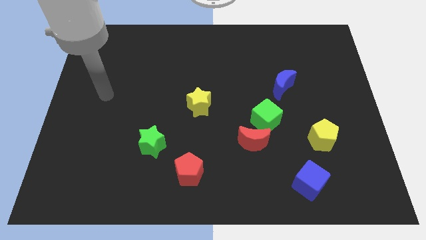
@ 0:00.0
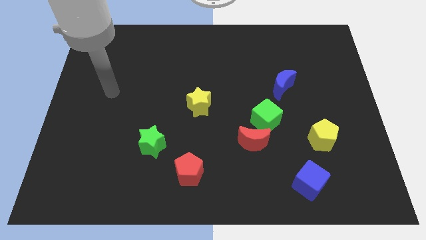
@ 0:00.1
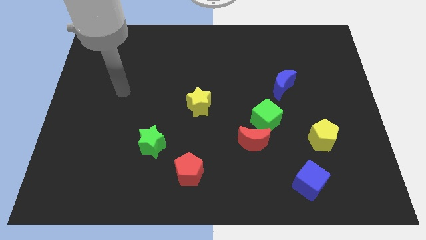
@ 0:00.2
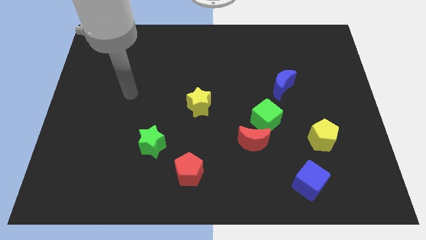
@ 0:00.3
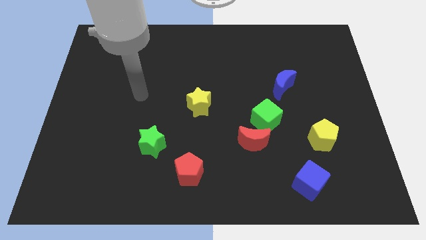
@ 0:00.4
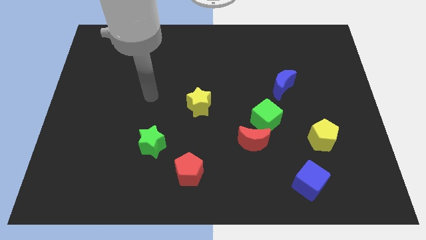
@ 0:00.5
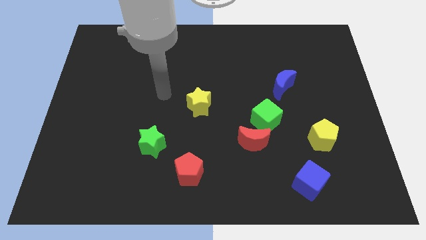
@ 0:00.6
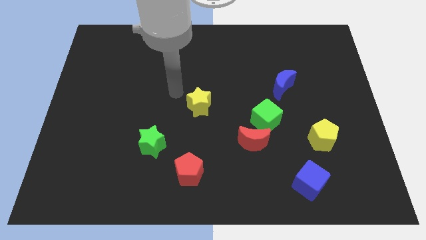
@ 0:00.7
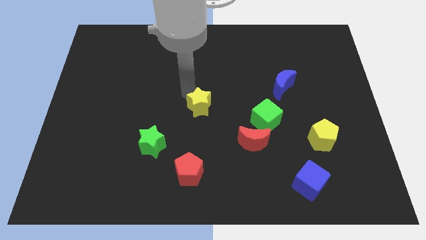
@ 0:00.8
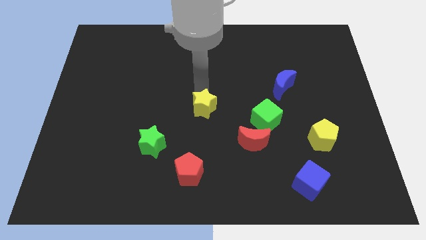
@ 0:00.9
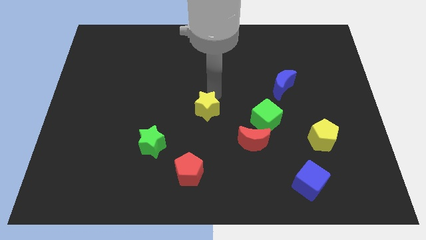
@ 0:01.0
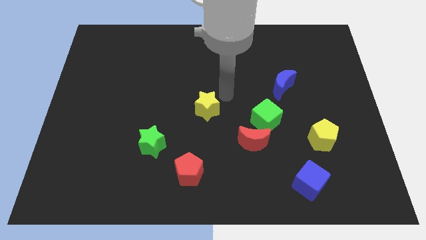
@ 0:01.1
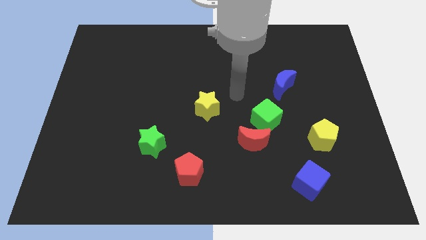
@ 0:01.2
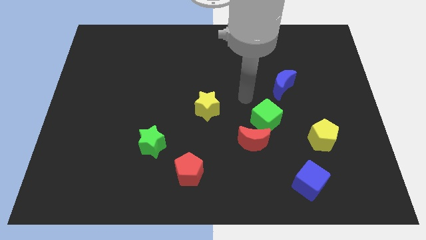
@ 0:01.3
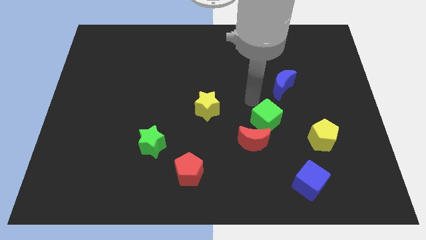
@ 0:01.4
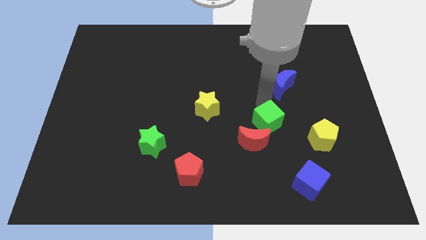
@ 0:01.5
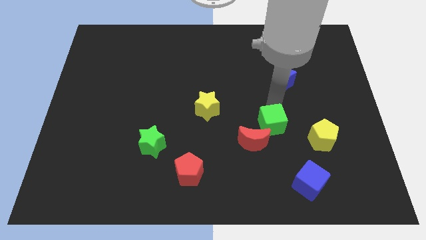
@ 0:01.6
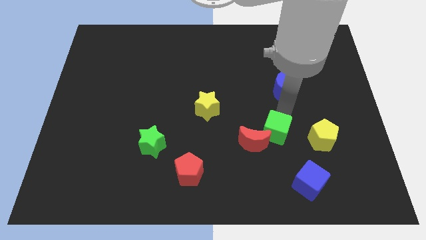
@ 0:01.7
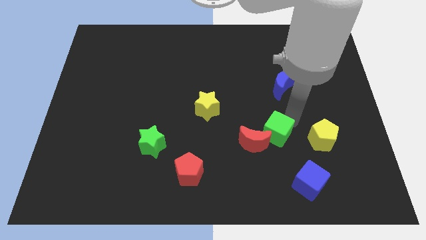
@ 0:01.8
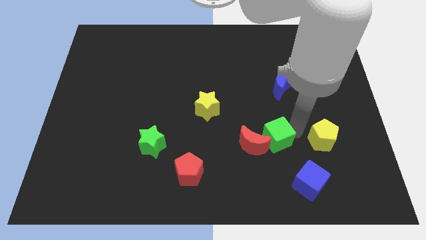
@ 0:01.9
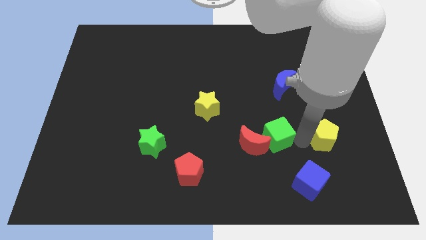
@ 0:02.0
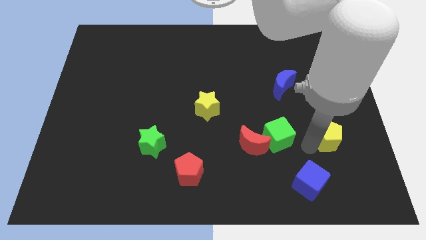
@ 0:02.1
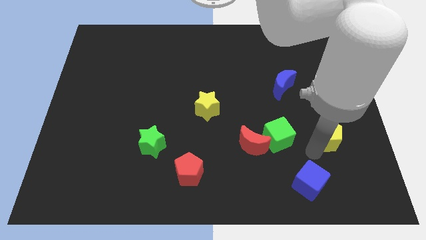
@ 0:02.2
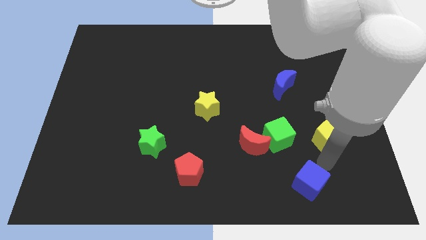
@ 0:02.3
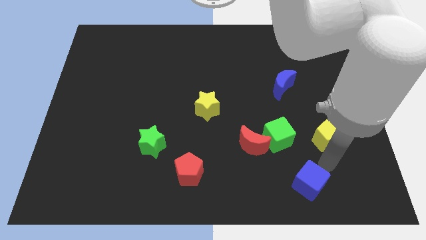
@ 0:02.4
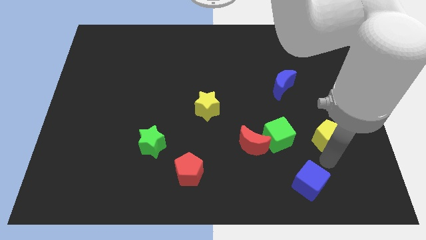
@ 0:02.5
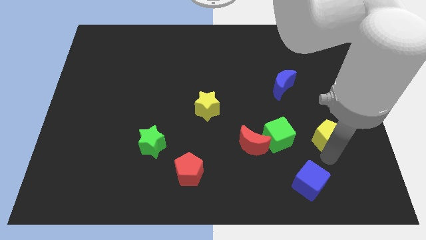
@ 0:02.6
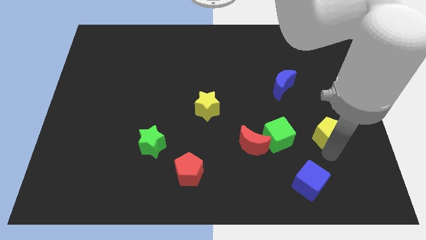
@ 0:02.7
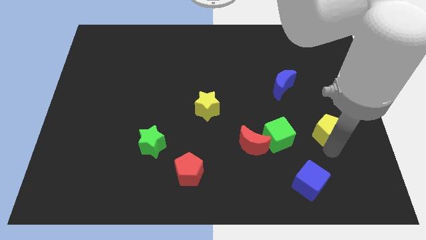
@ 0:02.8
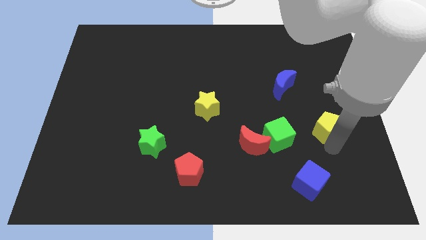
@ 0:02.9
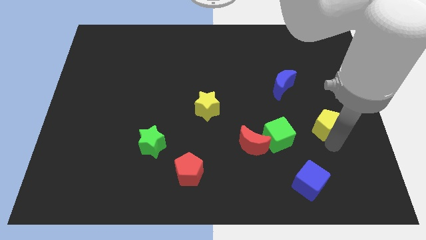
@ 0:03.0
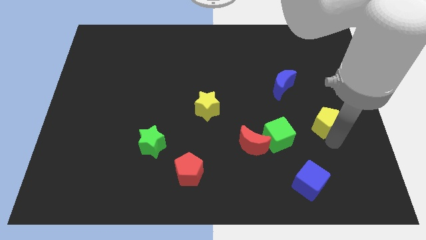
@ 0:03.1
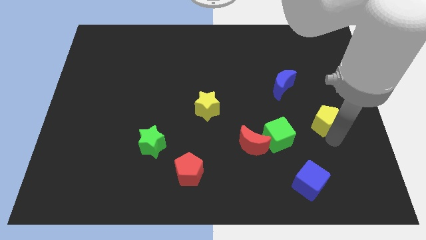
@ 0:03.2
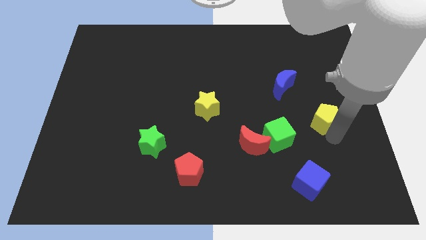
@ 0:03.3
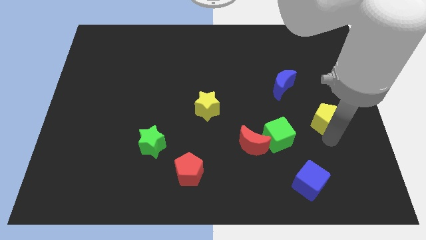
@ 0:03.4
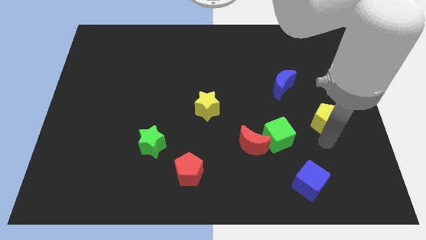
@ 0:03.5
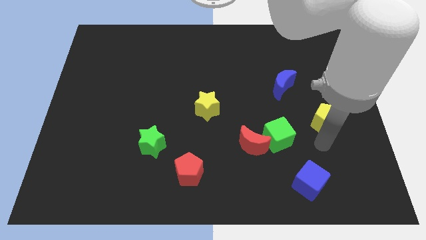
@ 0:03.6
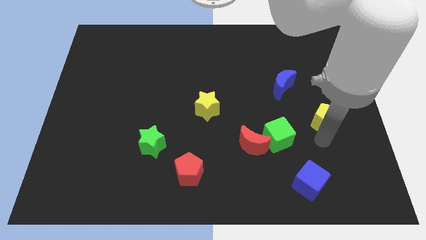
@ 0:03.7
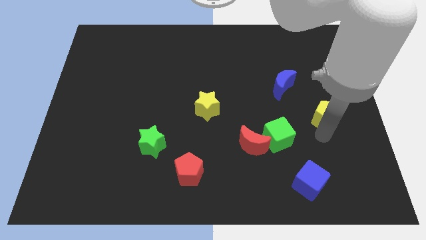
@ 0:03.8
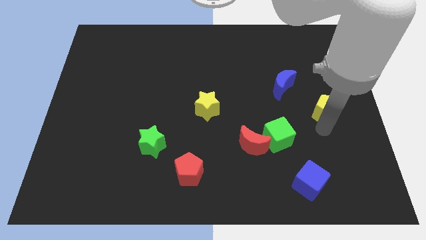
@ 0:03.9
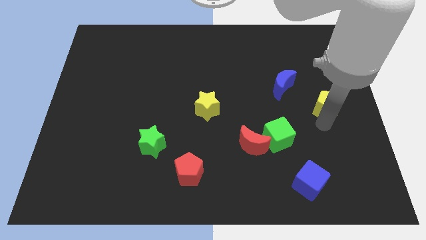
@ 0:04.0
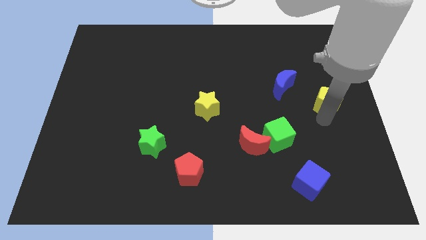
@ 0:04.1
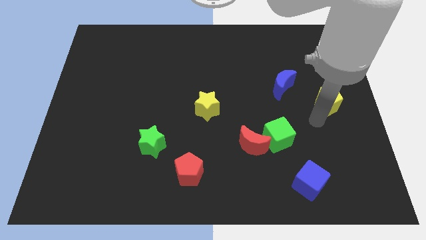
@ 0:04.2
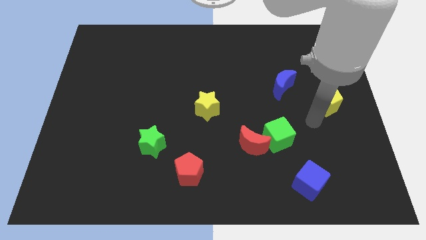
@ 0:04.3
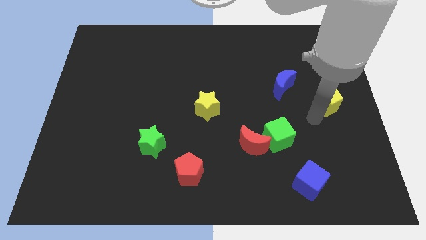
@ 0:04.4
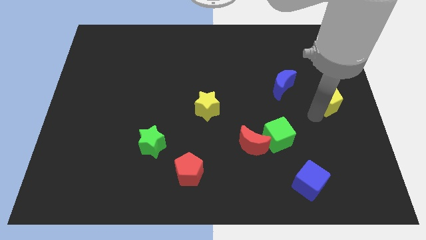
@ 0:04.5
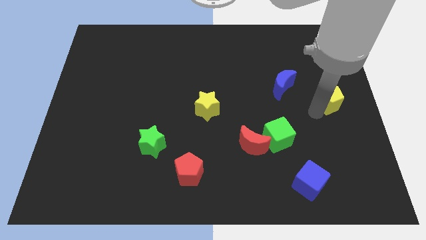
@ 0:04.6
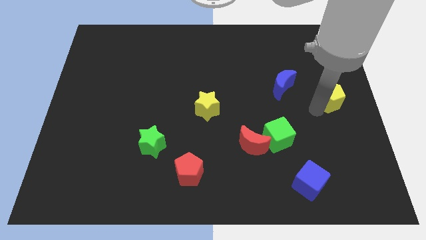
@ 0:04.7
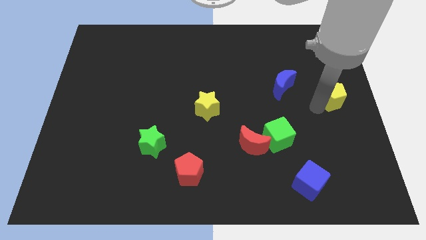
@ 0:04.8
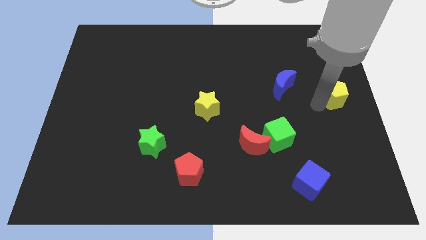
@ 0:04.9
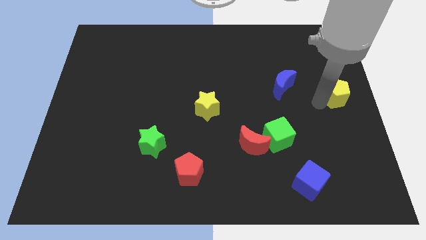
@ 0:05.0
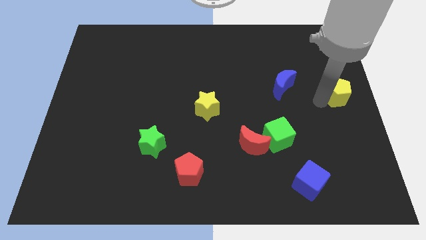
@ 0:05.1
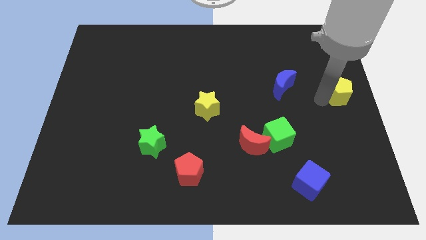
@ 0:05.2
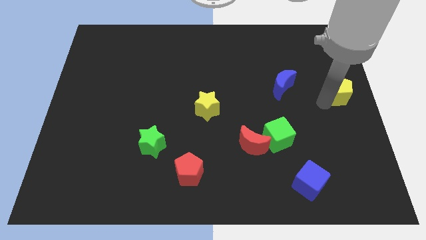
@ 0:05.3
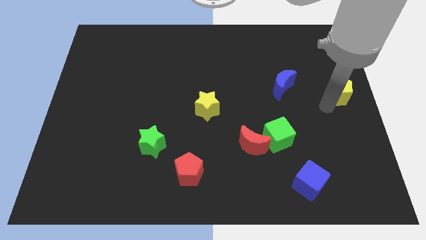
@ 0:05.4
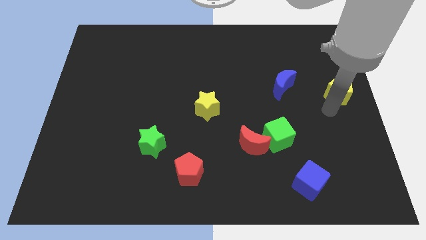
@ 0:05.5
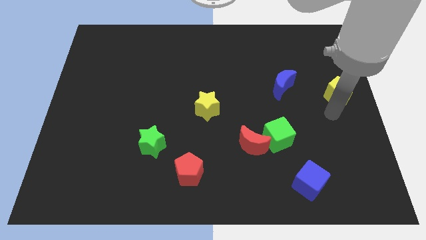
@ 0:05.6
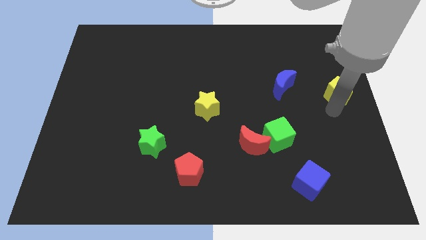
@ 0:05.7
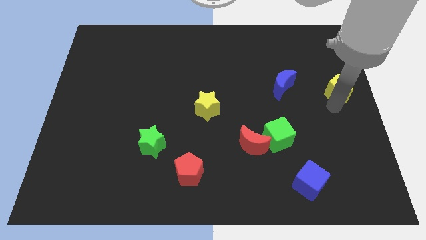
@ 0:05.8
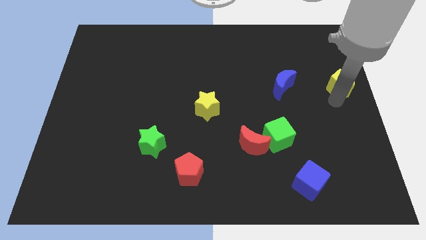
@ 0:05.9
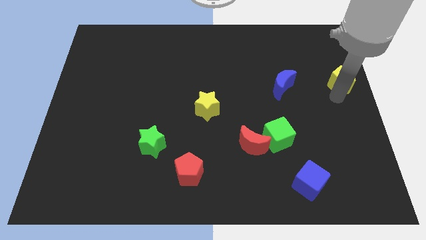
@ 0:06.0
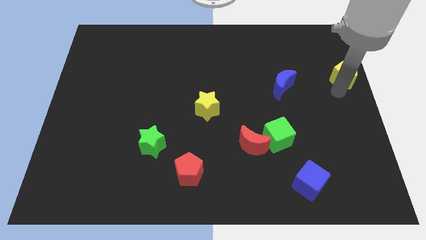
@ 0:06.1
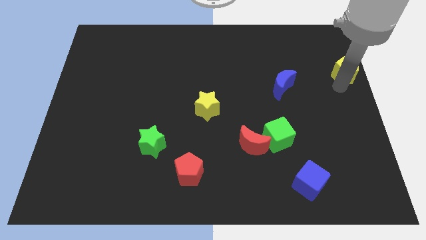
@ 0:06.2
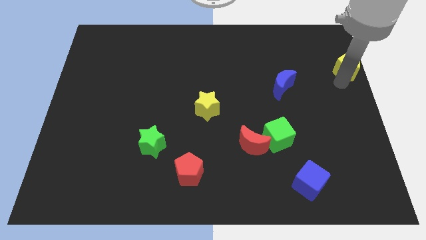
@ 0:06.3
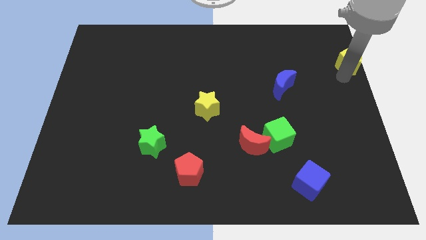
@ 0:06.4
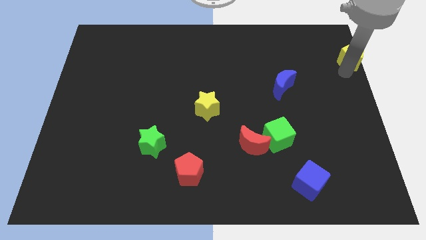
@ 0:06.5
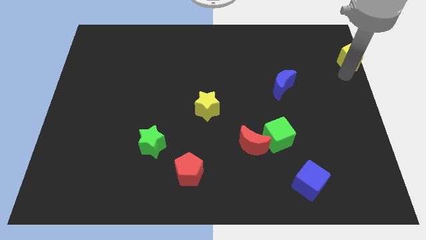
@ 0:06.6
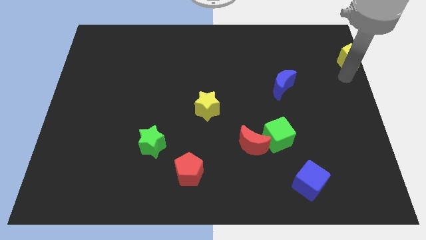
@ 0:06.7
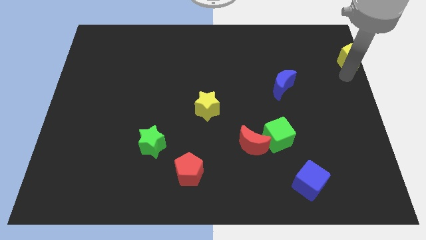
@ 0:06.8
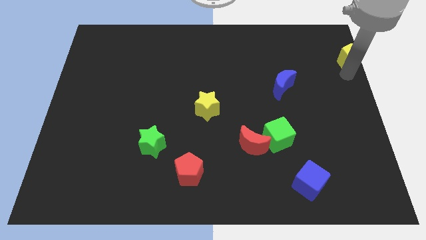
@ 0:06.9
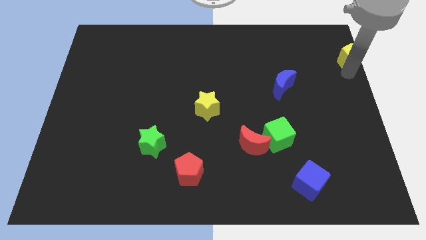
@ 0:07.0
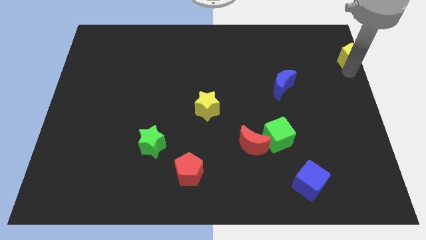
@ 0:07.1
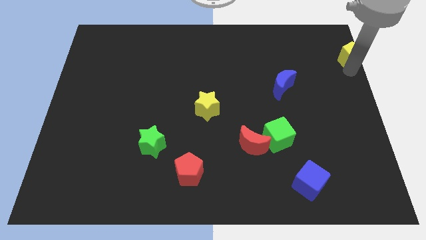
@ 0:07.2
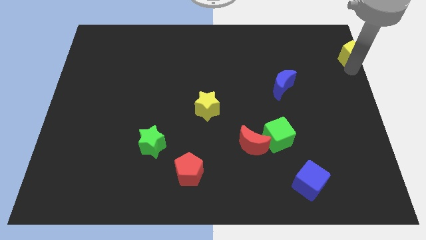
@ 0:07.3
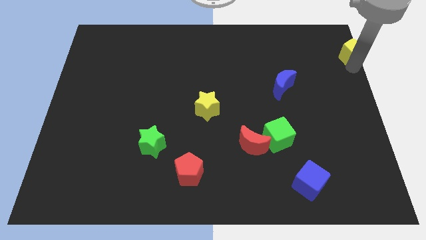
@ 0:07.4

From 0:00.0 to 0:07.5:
move the yellow pentagon to the top right
